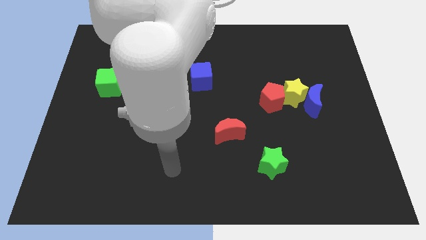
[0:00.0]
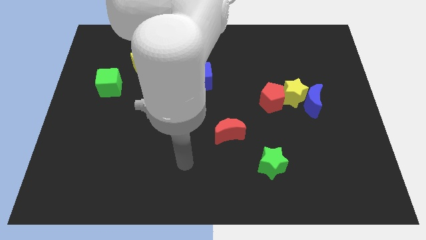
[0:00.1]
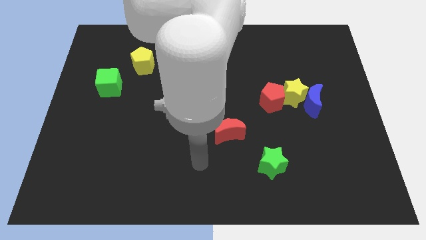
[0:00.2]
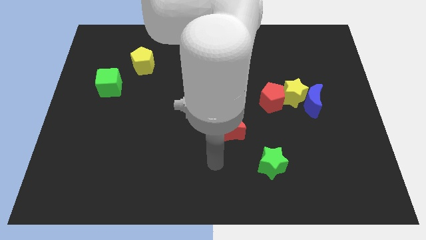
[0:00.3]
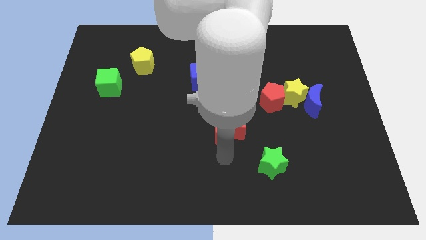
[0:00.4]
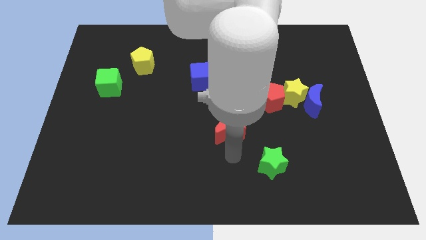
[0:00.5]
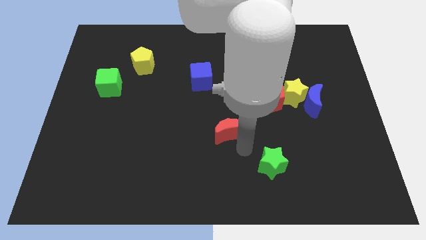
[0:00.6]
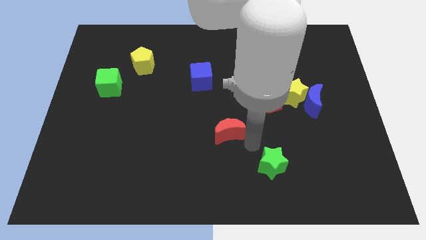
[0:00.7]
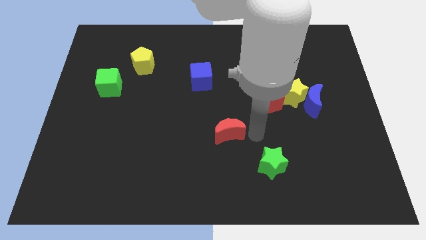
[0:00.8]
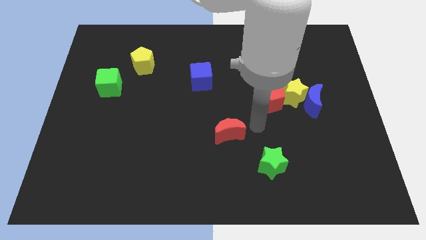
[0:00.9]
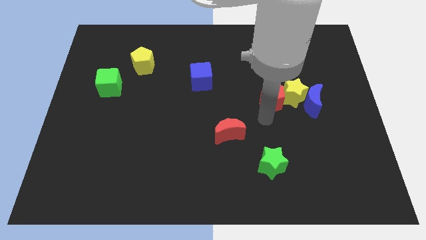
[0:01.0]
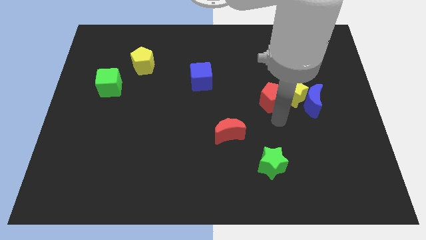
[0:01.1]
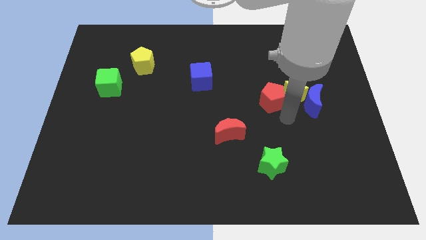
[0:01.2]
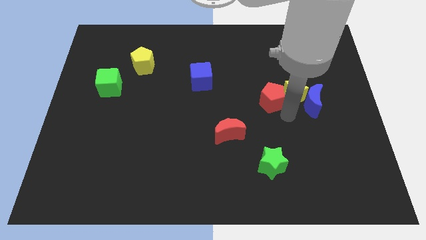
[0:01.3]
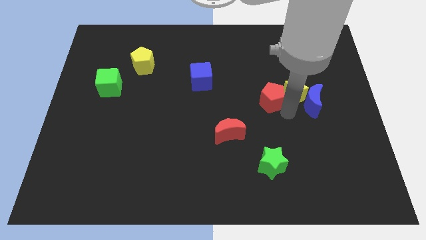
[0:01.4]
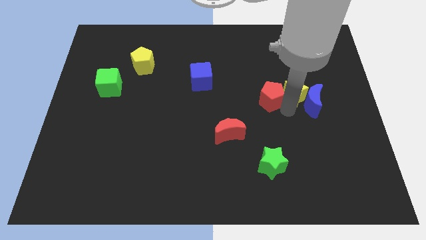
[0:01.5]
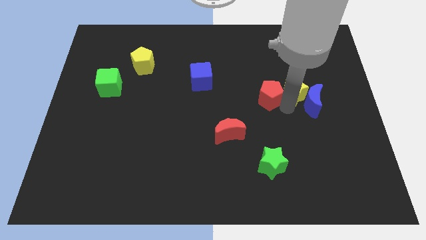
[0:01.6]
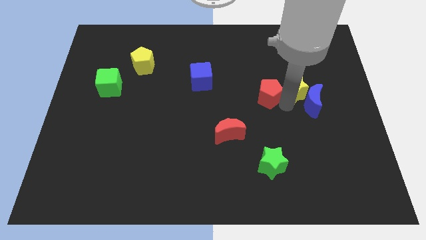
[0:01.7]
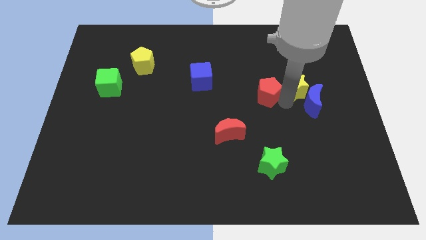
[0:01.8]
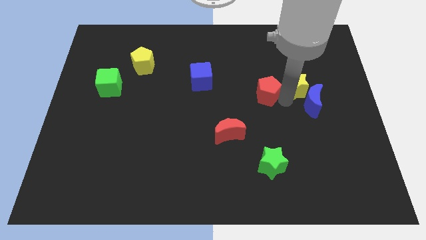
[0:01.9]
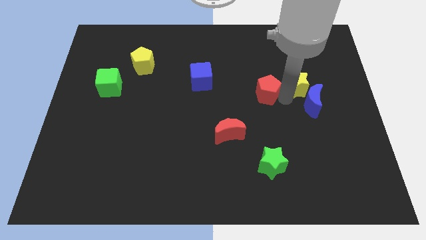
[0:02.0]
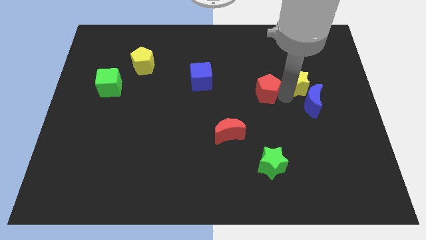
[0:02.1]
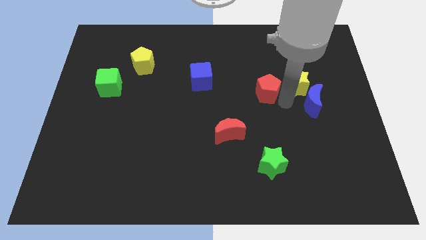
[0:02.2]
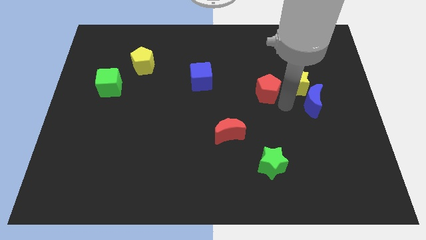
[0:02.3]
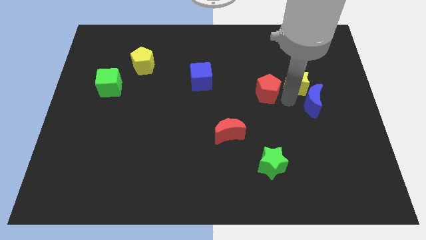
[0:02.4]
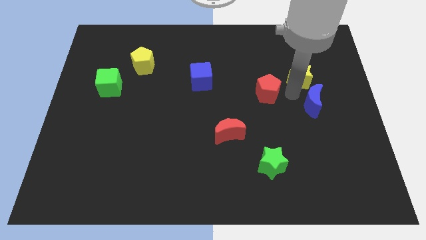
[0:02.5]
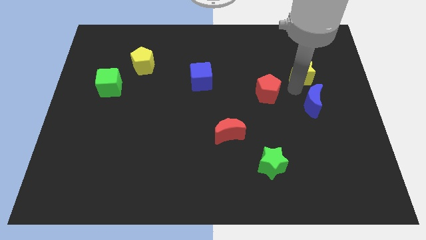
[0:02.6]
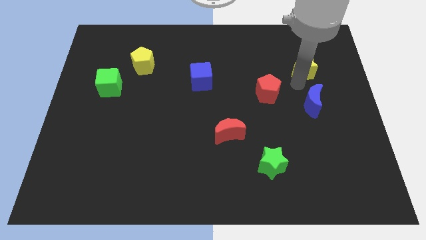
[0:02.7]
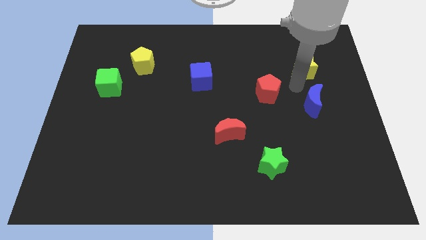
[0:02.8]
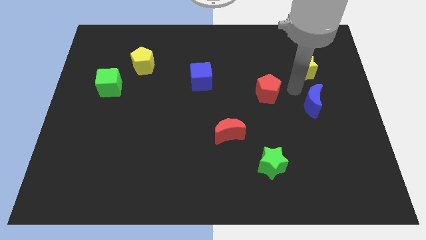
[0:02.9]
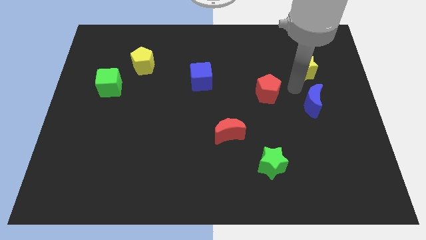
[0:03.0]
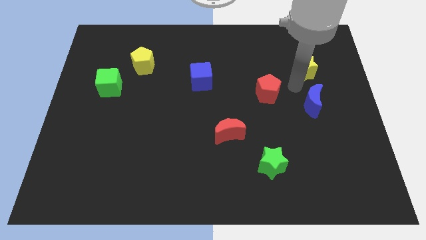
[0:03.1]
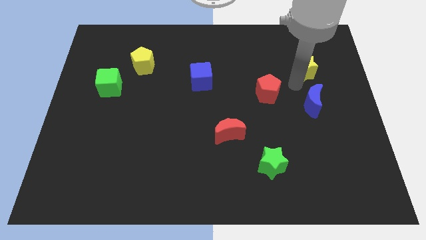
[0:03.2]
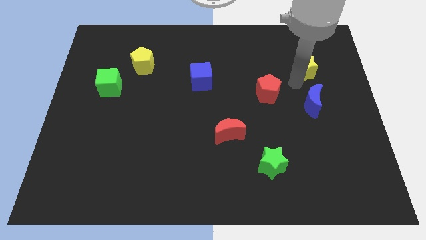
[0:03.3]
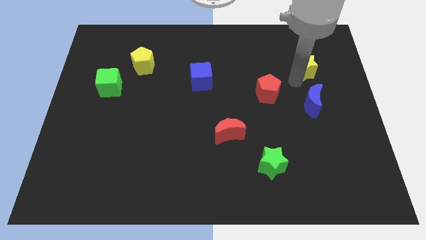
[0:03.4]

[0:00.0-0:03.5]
pull the yellow star apart from the blue moon and red pentagon

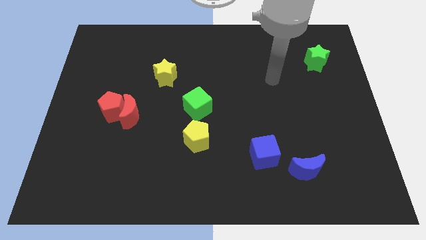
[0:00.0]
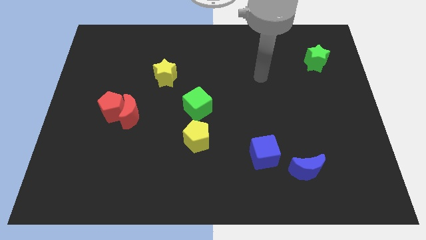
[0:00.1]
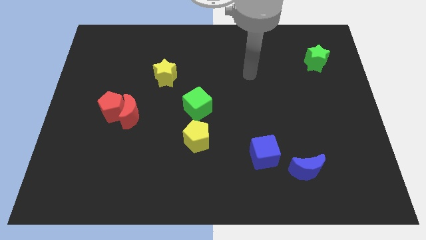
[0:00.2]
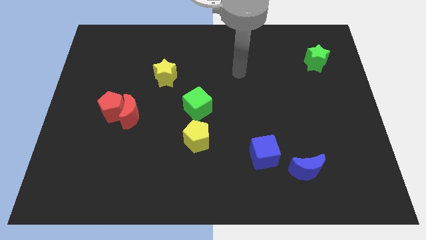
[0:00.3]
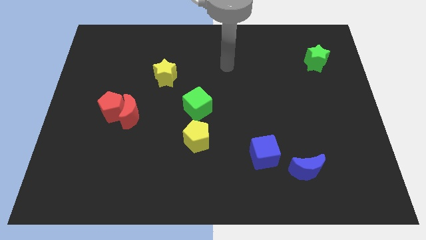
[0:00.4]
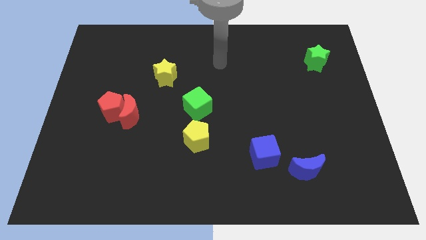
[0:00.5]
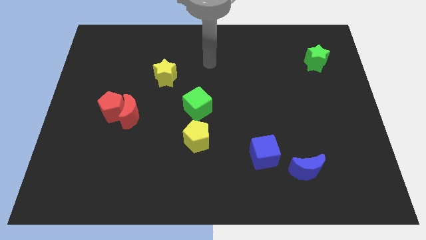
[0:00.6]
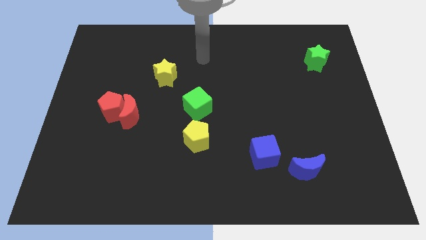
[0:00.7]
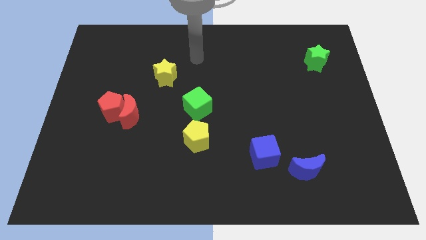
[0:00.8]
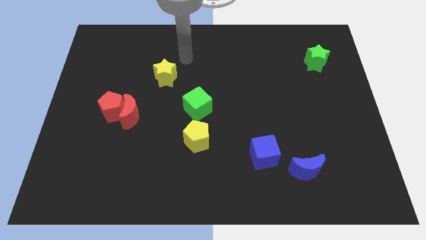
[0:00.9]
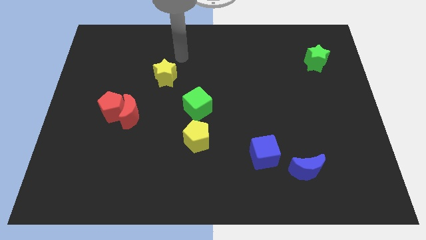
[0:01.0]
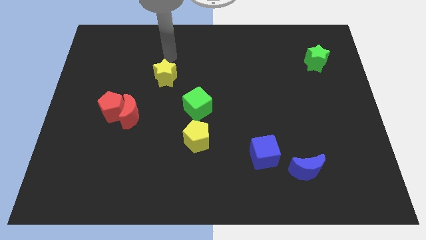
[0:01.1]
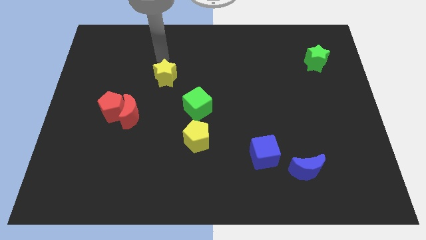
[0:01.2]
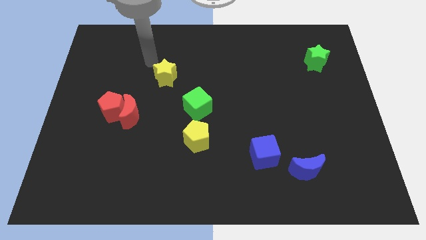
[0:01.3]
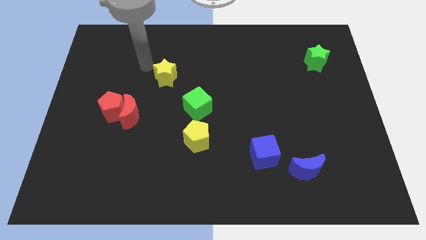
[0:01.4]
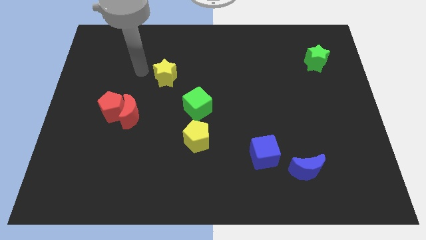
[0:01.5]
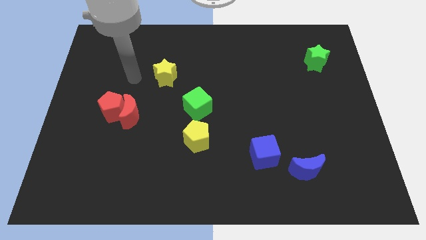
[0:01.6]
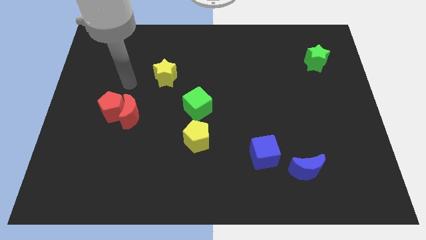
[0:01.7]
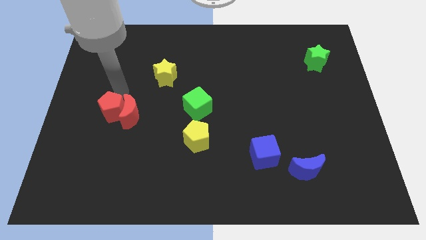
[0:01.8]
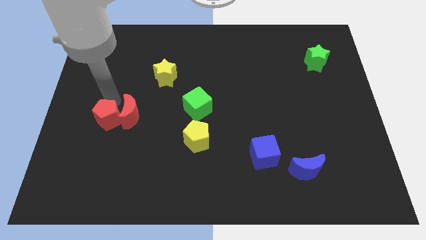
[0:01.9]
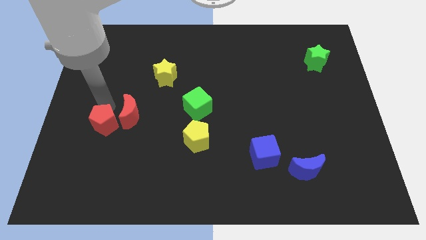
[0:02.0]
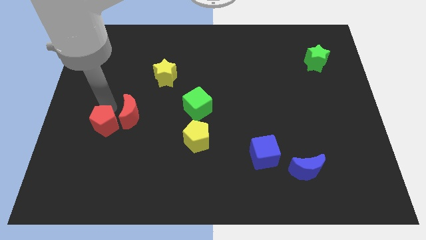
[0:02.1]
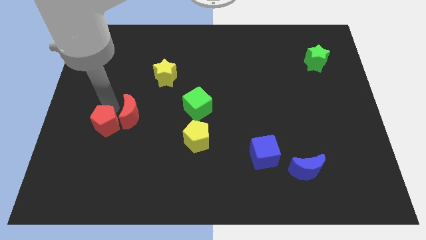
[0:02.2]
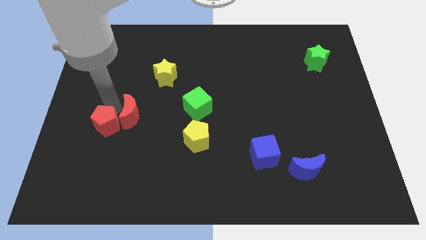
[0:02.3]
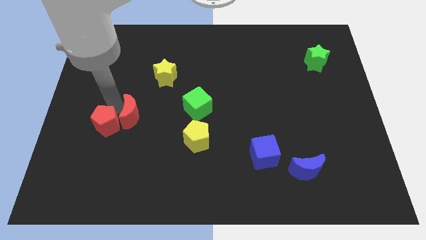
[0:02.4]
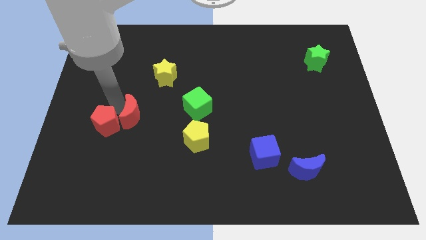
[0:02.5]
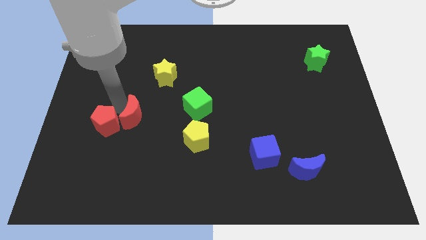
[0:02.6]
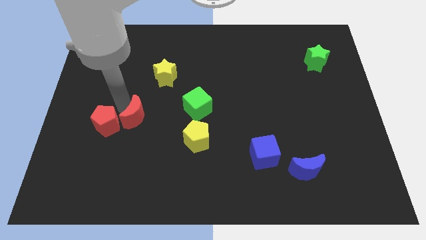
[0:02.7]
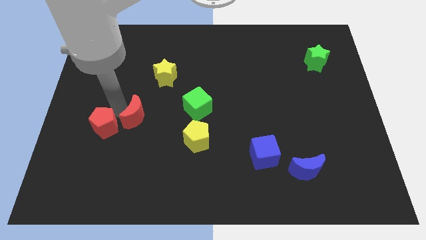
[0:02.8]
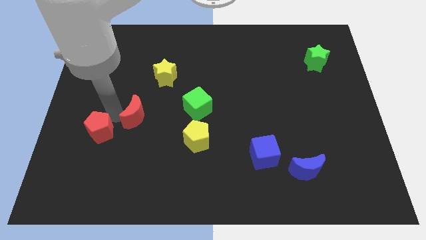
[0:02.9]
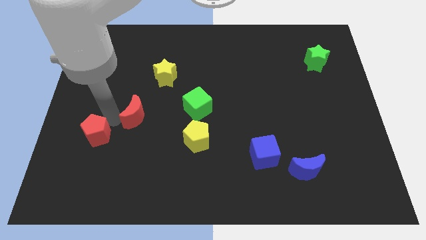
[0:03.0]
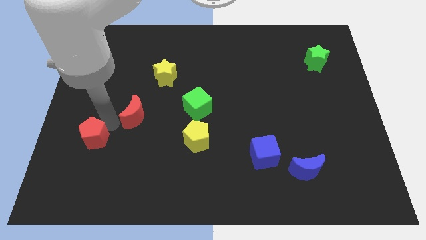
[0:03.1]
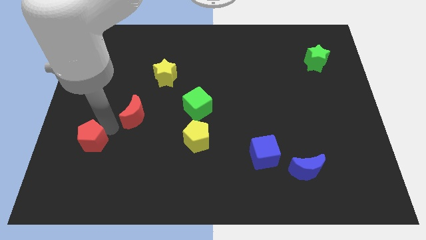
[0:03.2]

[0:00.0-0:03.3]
separate the red moon from the red pentagon

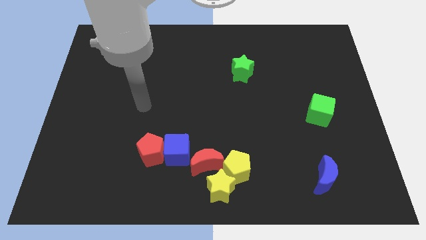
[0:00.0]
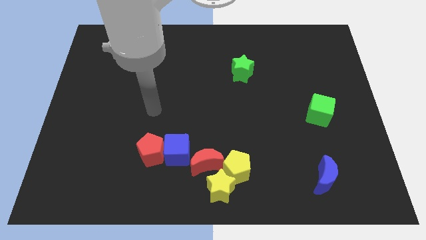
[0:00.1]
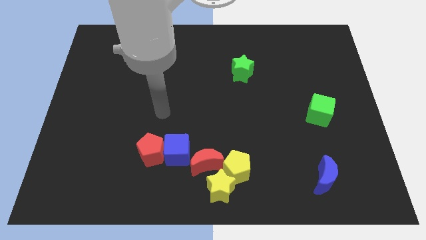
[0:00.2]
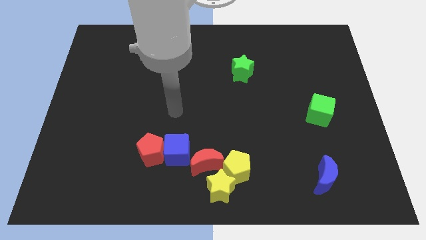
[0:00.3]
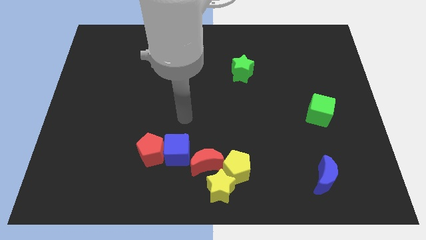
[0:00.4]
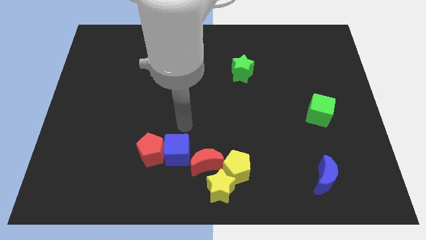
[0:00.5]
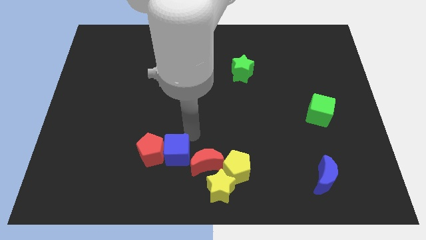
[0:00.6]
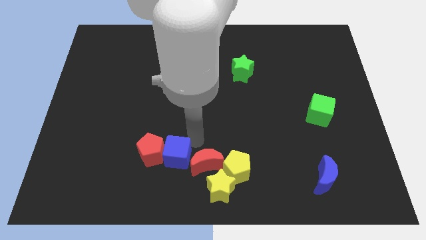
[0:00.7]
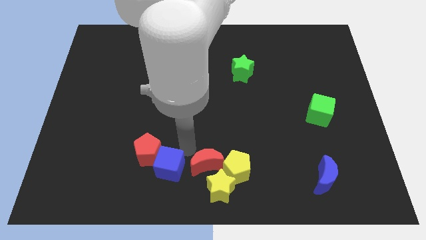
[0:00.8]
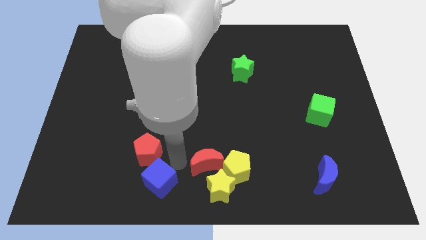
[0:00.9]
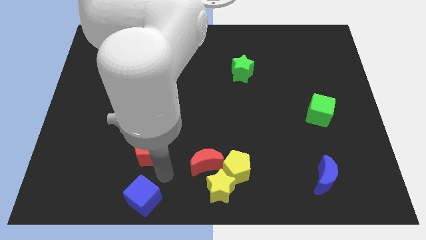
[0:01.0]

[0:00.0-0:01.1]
move the red pentagon away from the blue cube

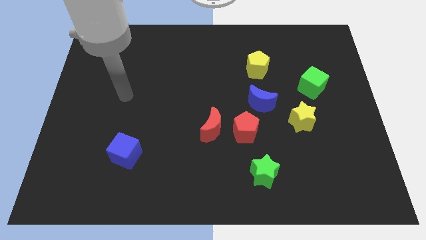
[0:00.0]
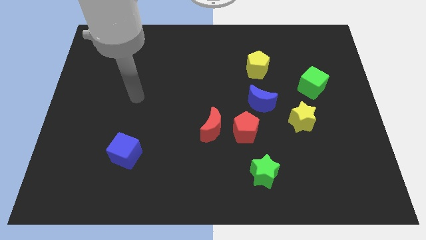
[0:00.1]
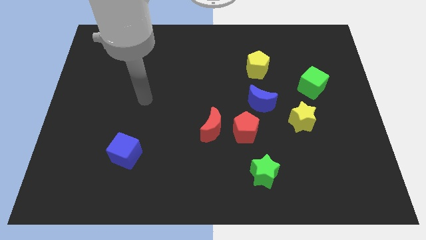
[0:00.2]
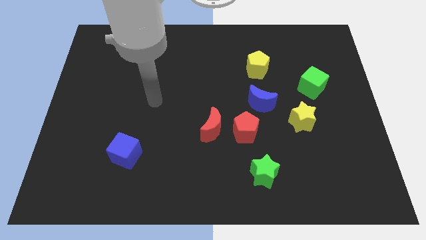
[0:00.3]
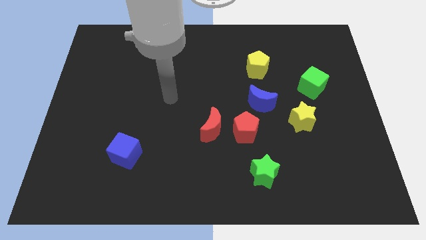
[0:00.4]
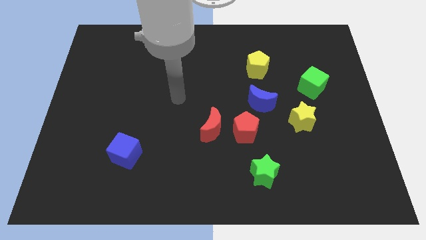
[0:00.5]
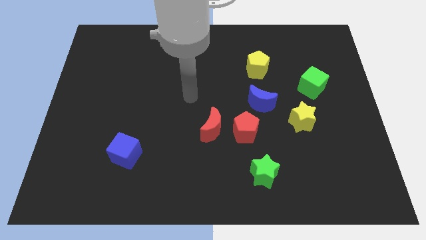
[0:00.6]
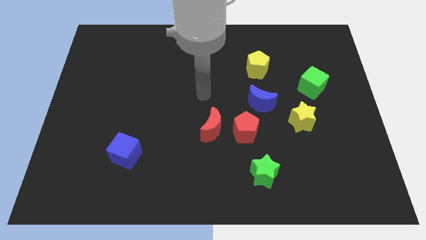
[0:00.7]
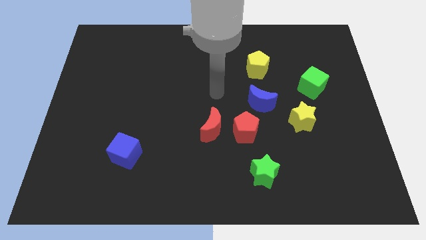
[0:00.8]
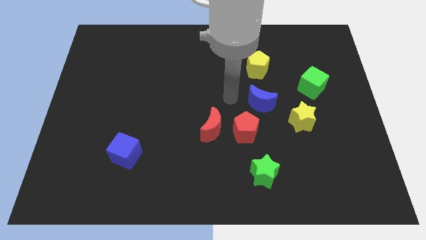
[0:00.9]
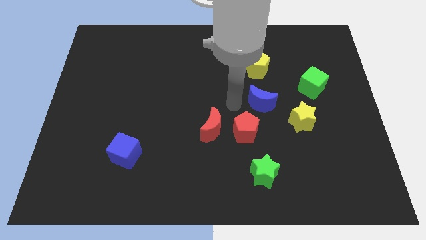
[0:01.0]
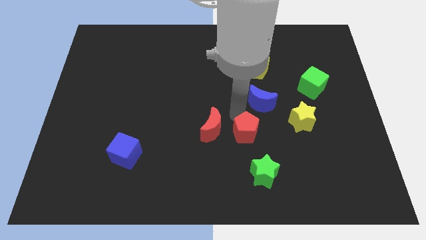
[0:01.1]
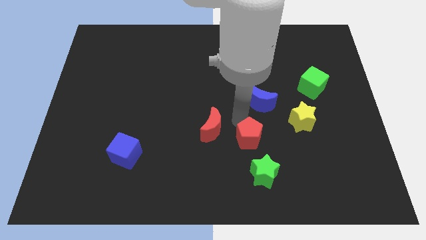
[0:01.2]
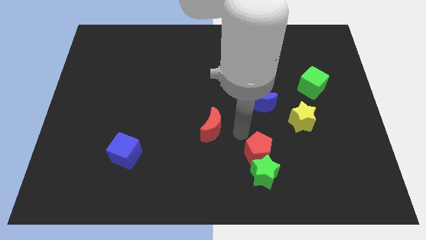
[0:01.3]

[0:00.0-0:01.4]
pull the red moon apart from the red pentagon
